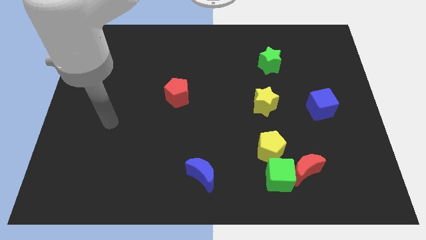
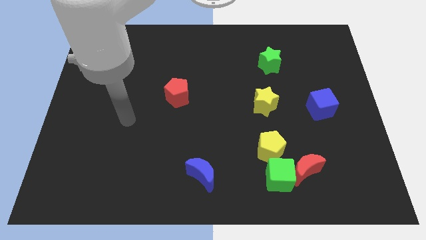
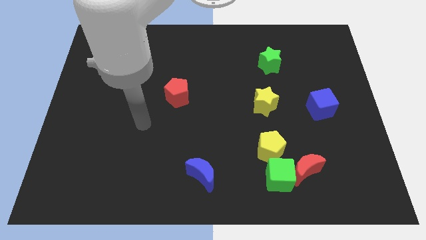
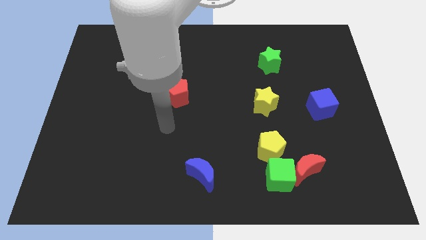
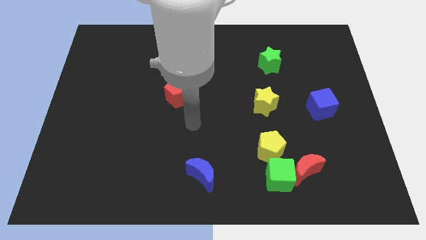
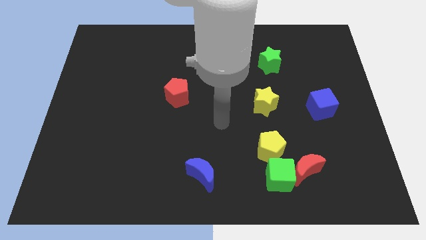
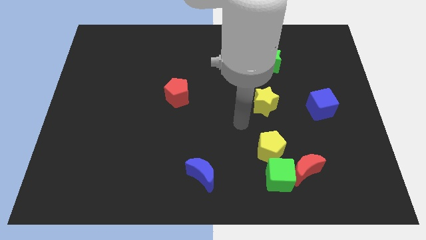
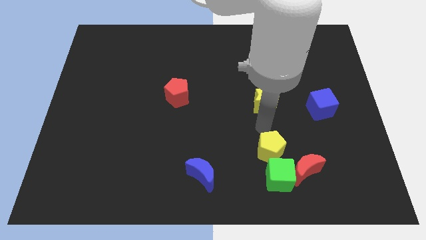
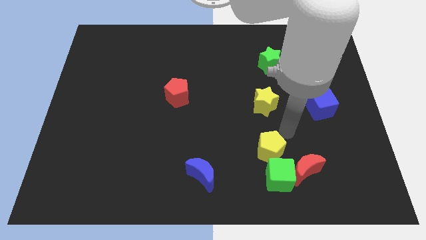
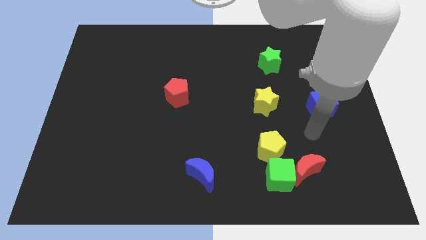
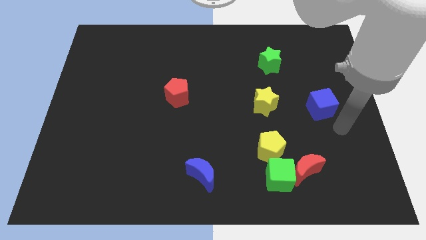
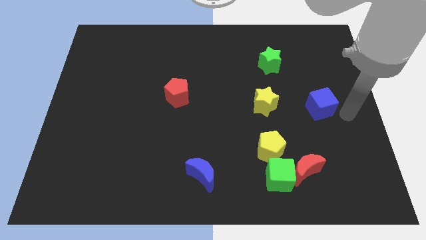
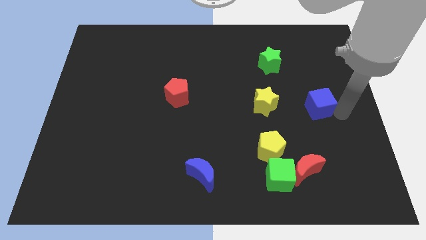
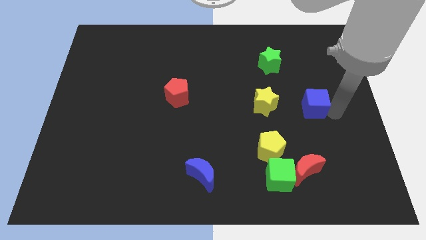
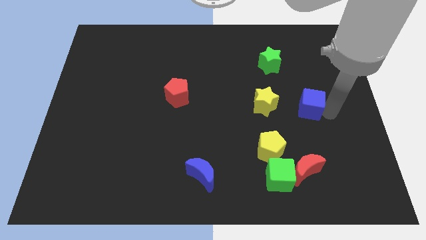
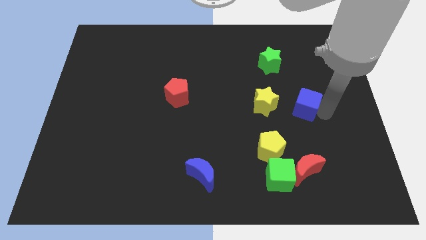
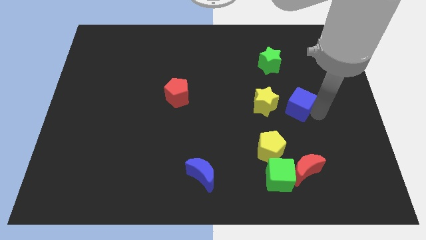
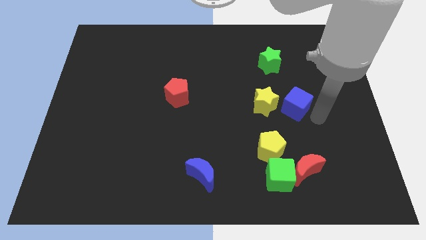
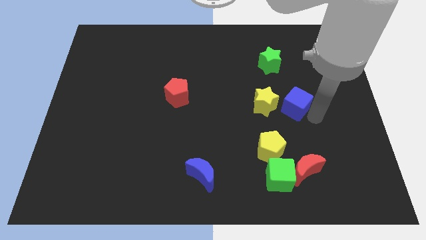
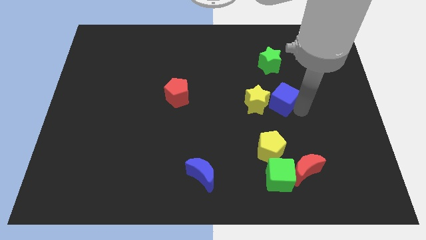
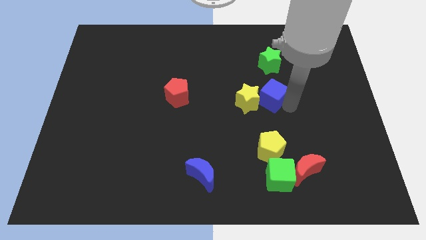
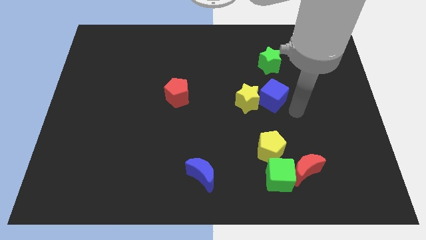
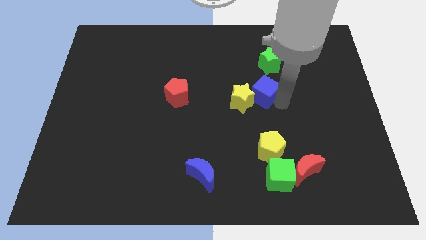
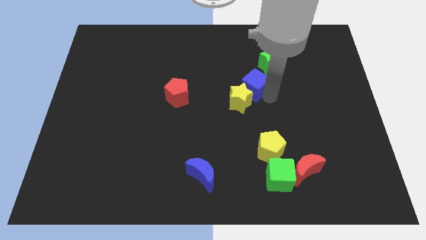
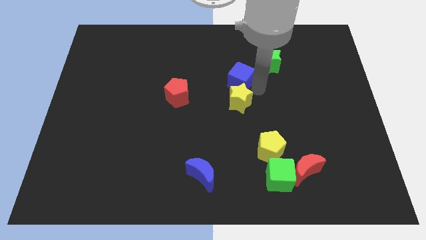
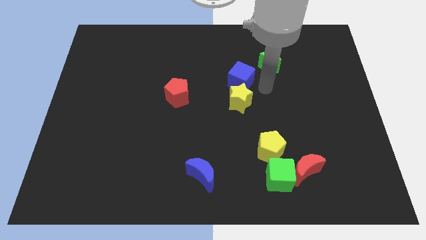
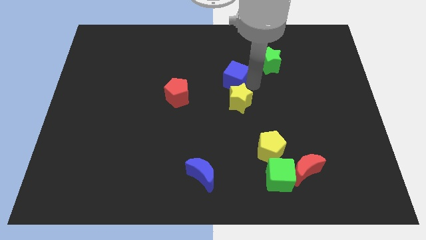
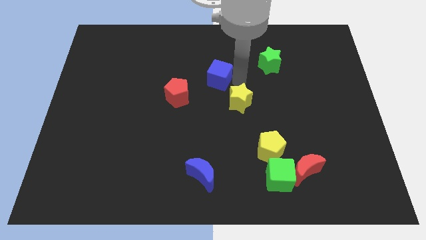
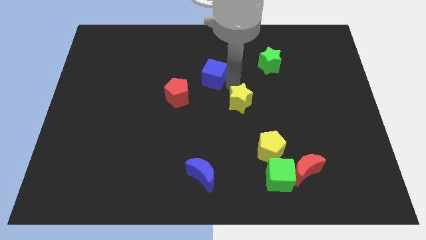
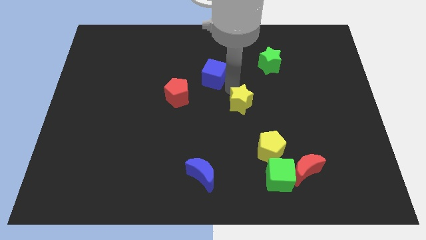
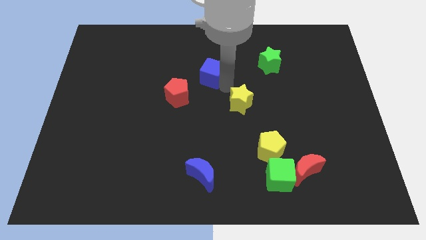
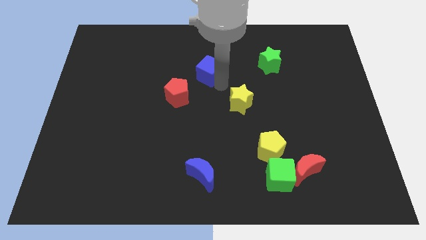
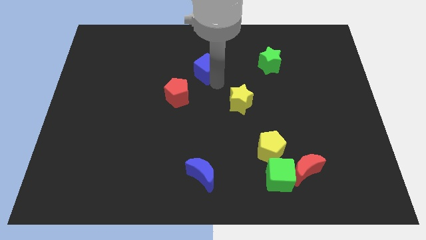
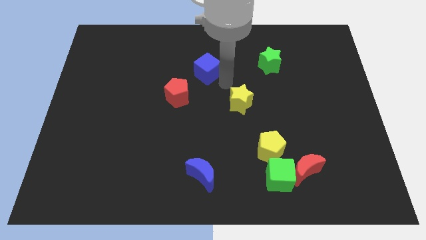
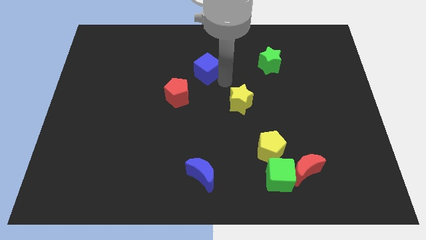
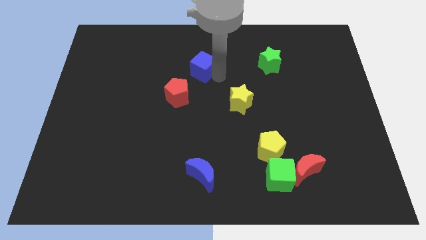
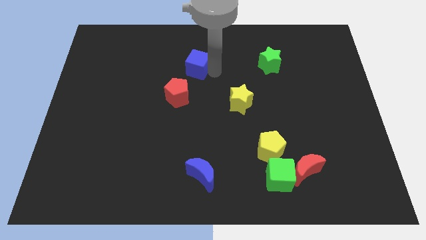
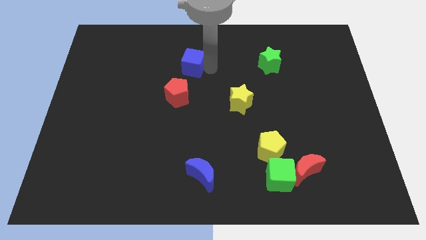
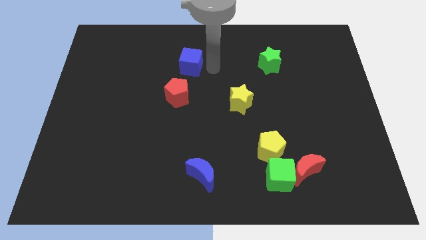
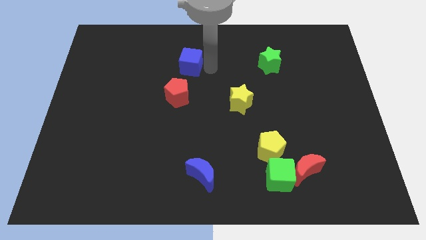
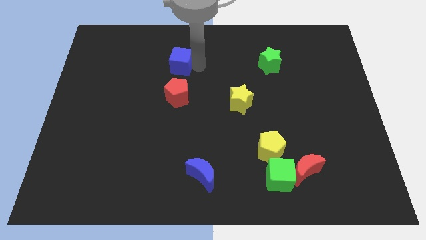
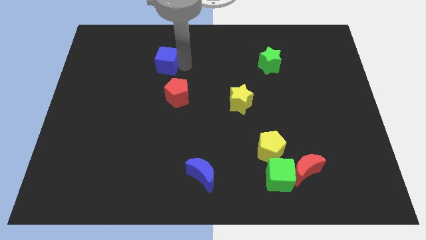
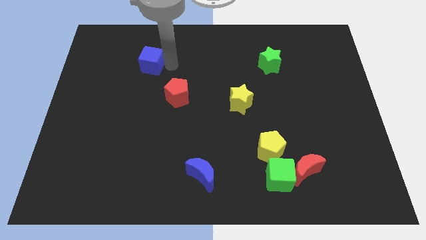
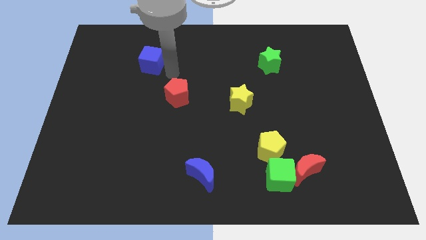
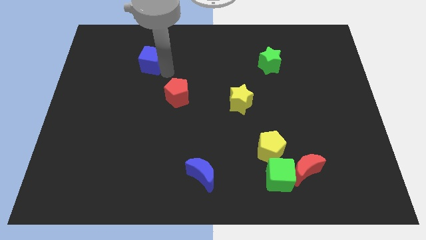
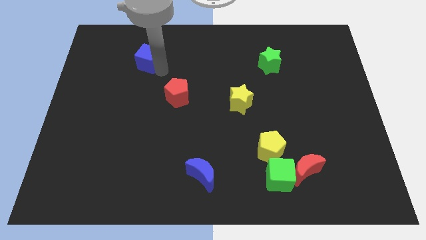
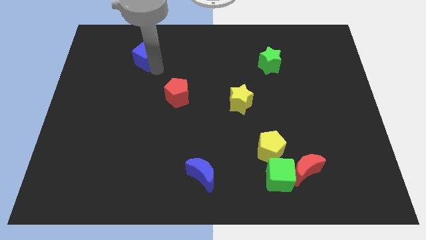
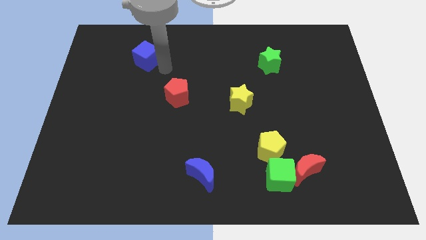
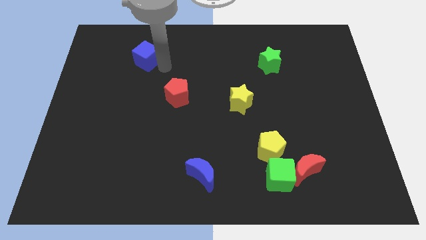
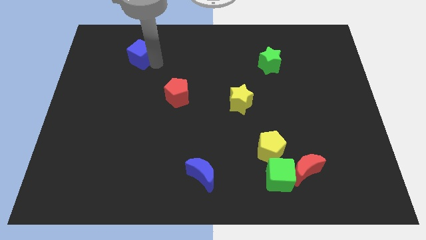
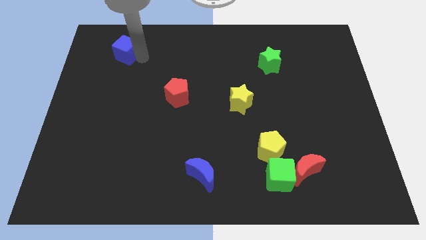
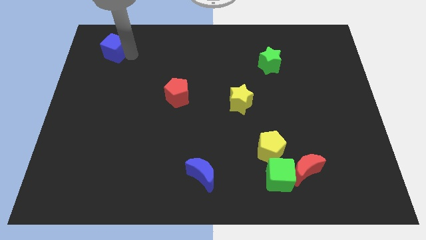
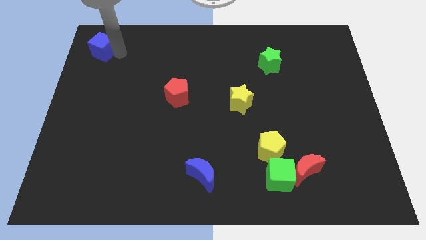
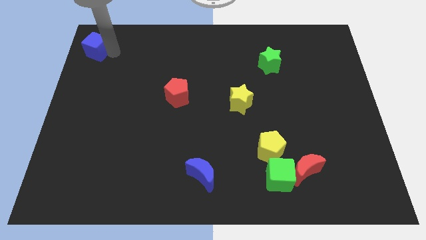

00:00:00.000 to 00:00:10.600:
move the blue cube to the top left corner
